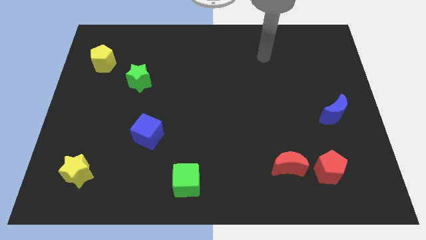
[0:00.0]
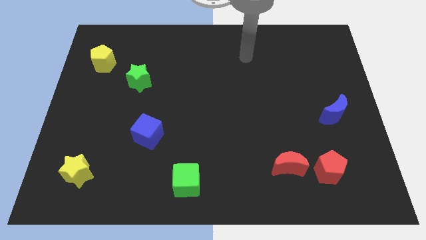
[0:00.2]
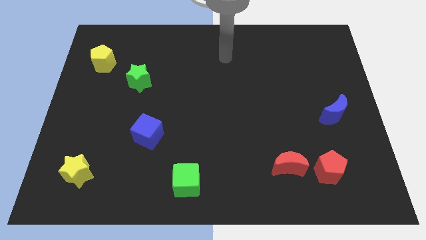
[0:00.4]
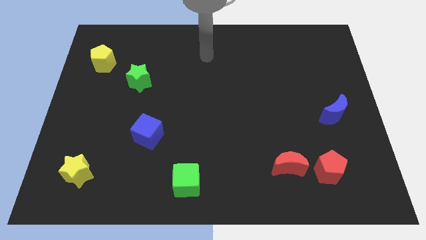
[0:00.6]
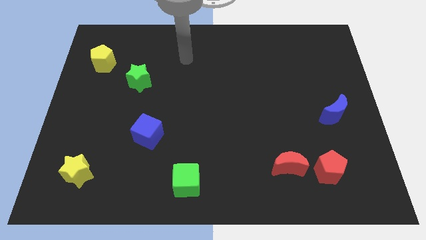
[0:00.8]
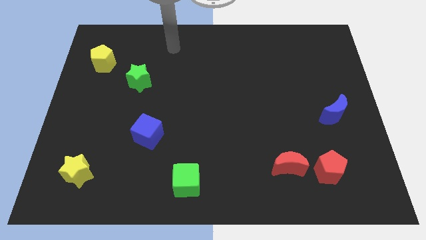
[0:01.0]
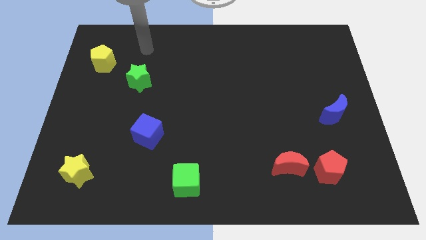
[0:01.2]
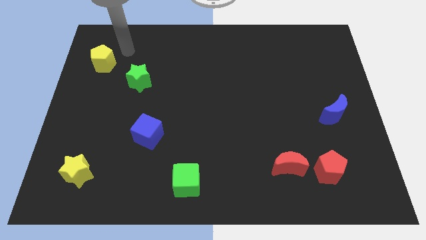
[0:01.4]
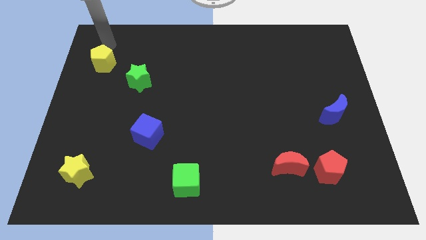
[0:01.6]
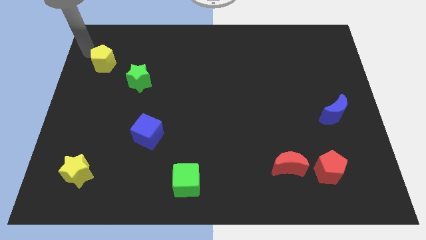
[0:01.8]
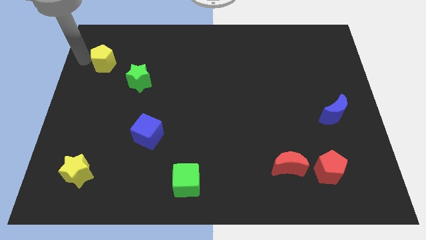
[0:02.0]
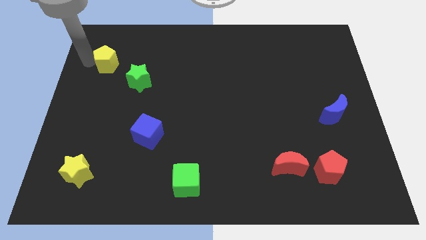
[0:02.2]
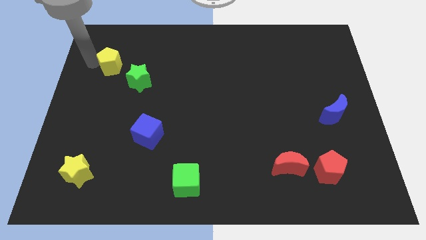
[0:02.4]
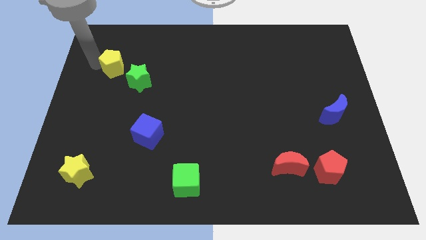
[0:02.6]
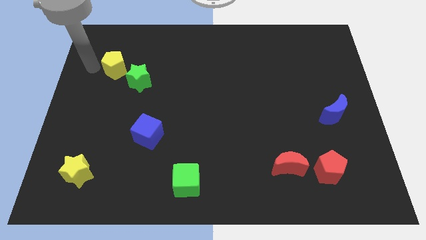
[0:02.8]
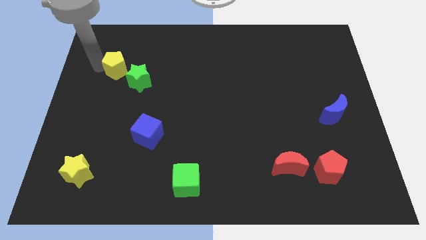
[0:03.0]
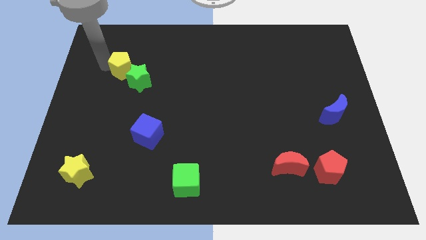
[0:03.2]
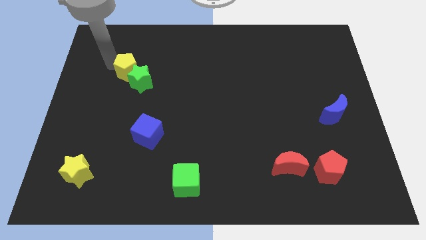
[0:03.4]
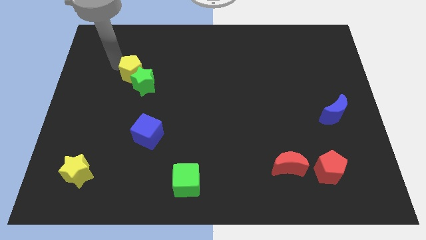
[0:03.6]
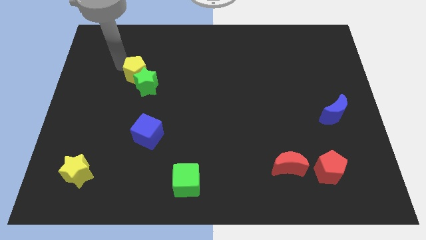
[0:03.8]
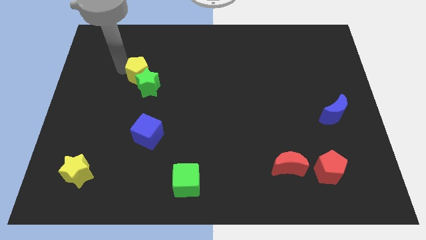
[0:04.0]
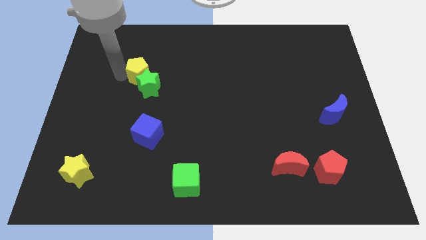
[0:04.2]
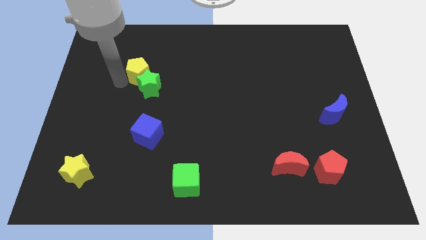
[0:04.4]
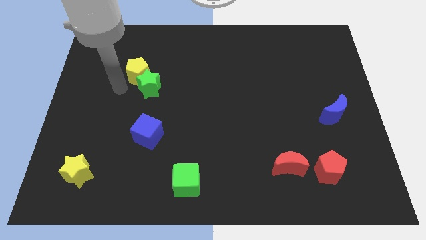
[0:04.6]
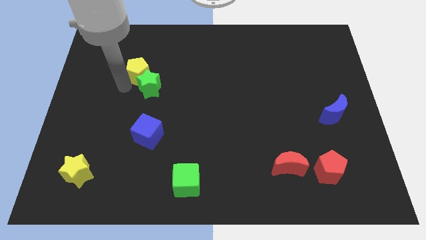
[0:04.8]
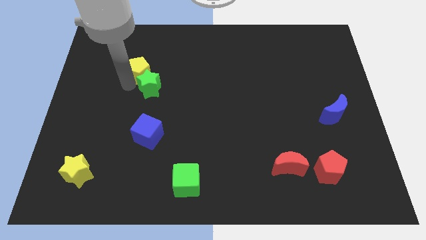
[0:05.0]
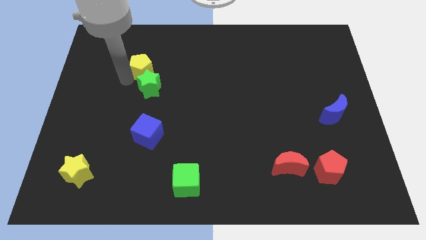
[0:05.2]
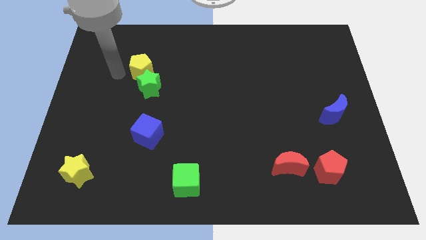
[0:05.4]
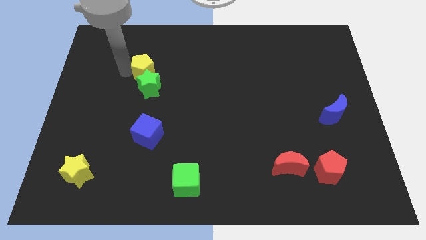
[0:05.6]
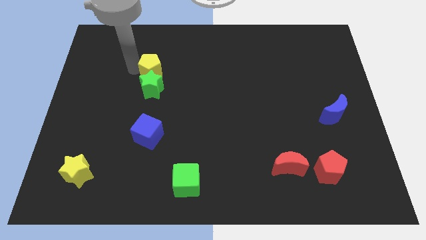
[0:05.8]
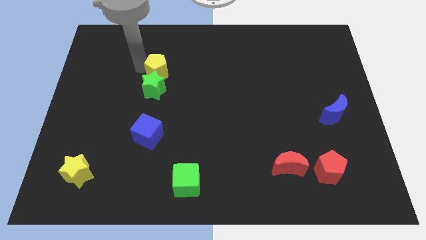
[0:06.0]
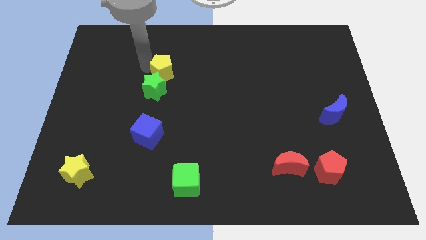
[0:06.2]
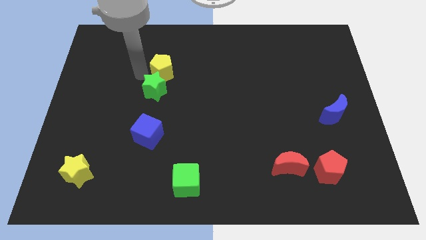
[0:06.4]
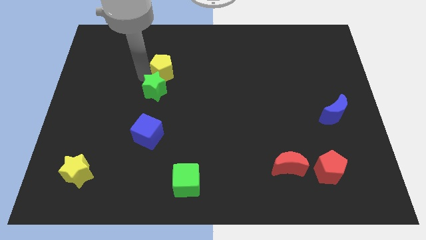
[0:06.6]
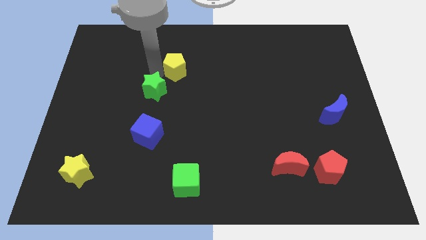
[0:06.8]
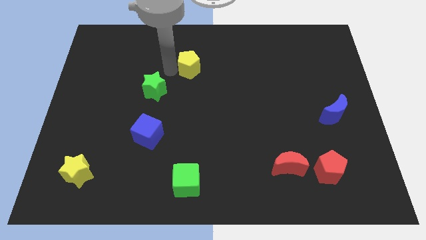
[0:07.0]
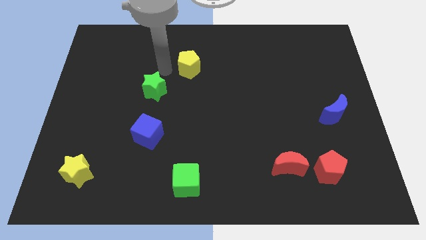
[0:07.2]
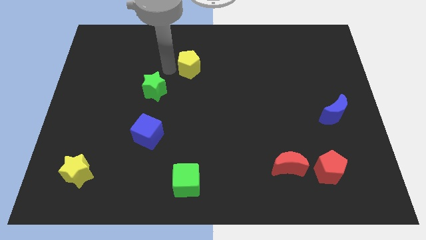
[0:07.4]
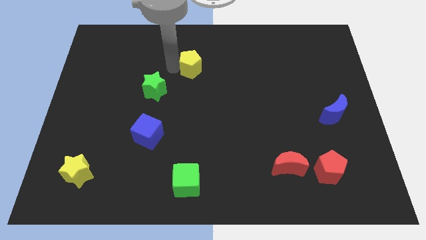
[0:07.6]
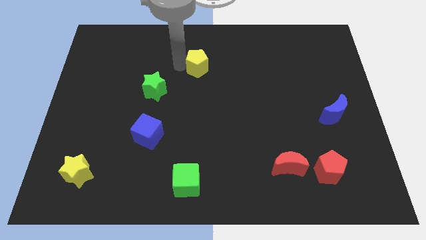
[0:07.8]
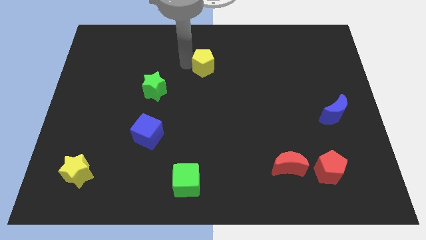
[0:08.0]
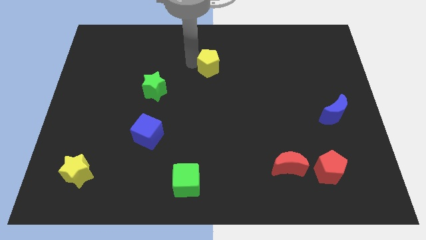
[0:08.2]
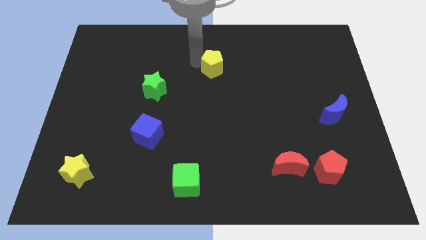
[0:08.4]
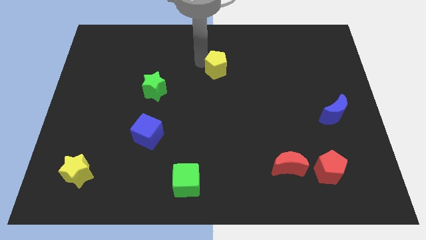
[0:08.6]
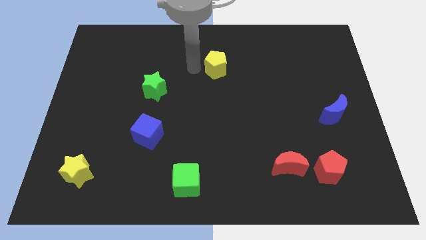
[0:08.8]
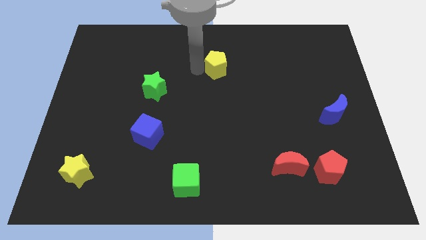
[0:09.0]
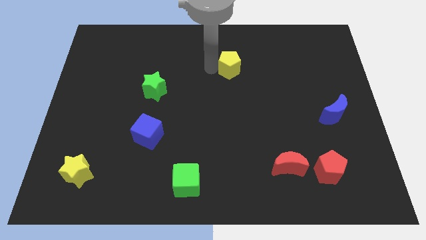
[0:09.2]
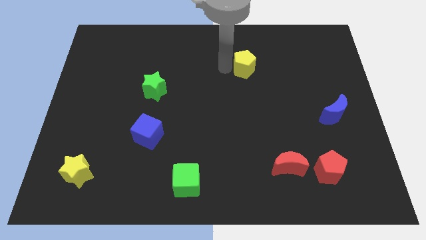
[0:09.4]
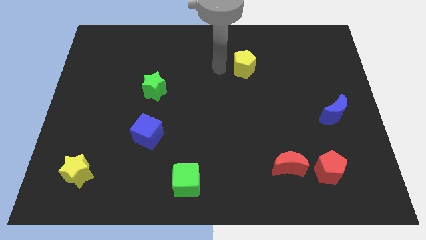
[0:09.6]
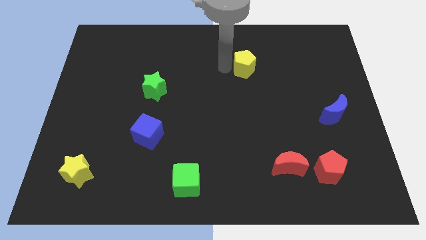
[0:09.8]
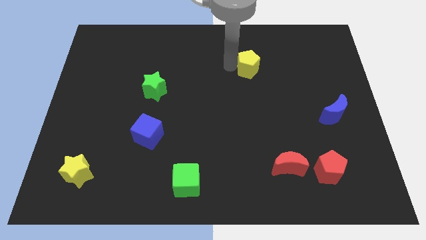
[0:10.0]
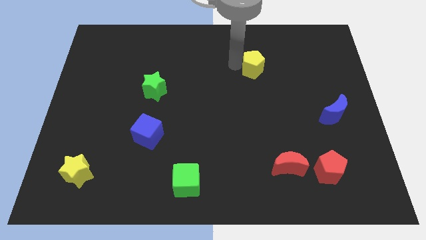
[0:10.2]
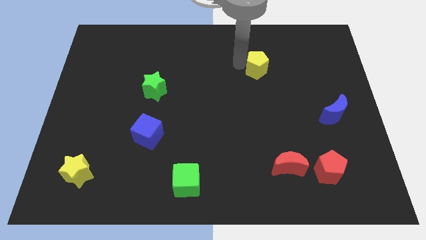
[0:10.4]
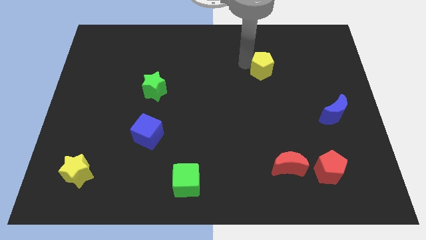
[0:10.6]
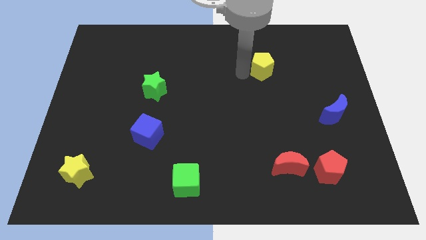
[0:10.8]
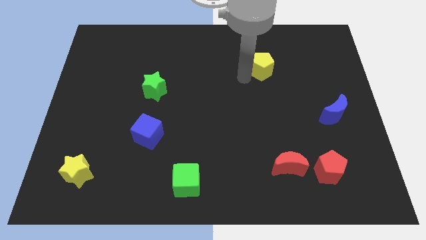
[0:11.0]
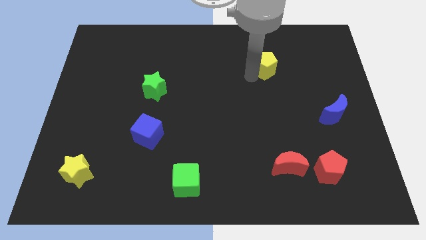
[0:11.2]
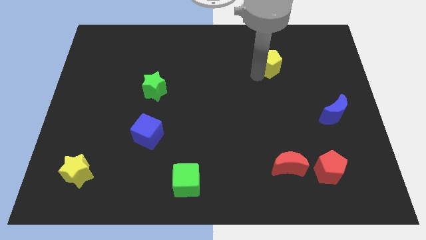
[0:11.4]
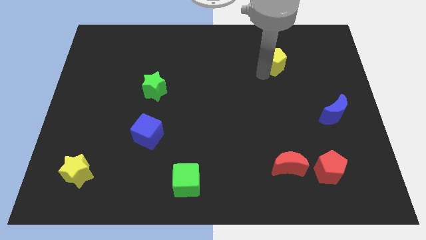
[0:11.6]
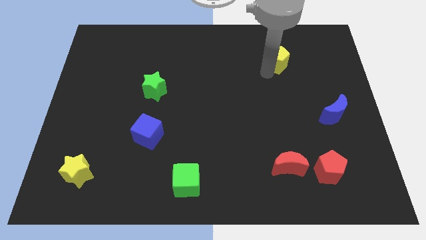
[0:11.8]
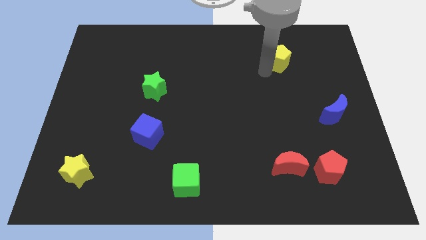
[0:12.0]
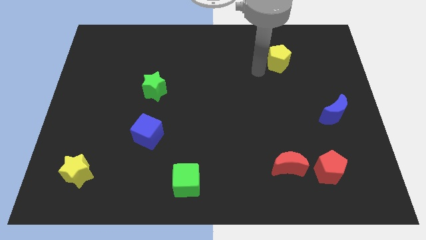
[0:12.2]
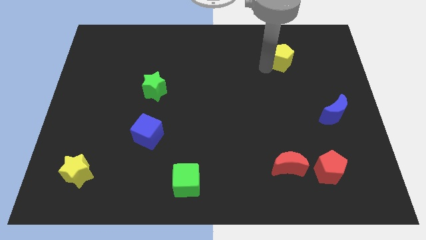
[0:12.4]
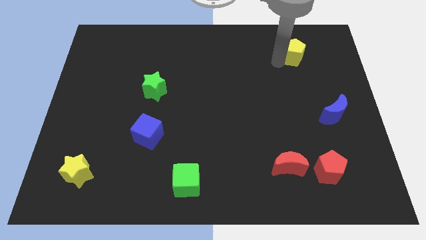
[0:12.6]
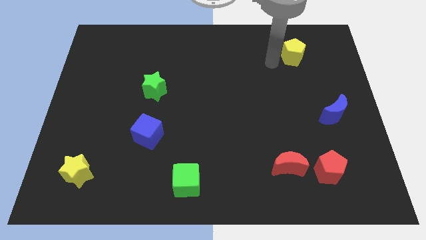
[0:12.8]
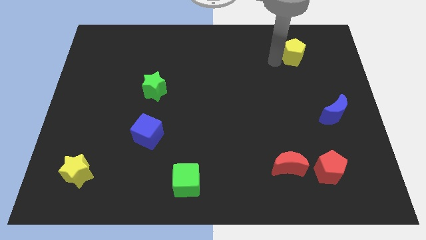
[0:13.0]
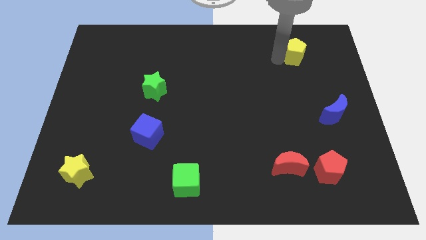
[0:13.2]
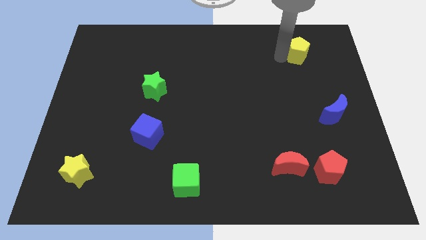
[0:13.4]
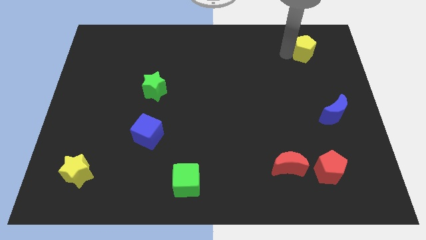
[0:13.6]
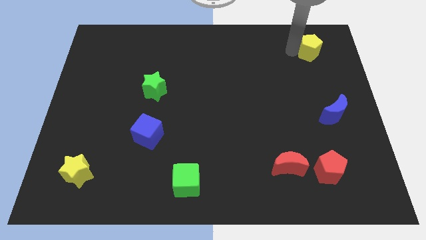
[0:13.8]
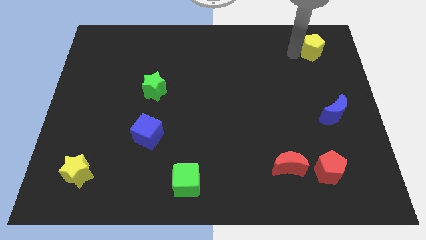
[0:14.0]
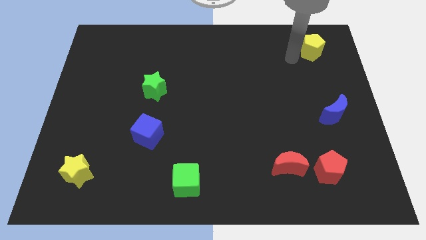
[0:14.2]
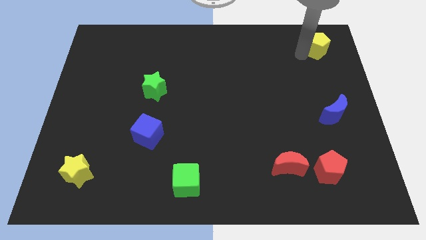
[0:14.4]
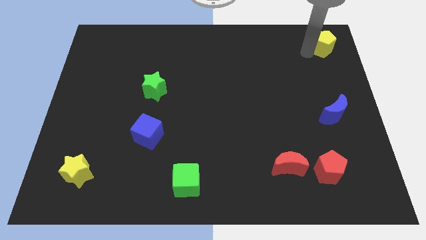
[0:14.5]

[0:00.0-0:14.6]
slide the yellow pentagon to the top right of the board

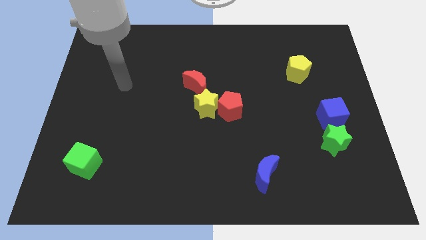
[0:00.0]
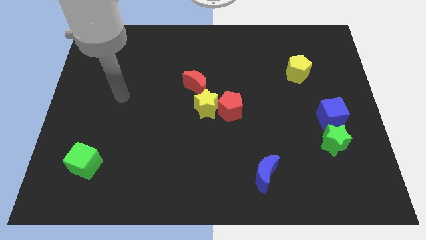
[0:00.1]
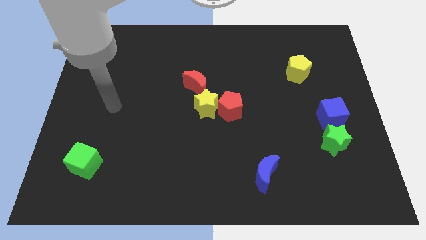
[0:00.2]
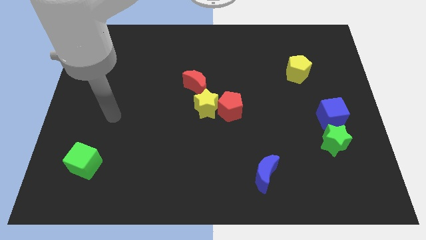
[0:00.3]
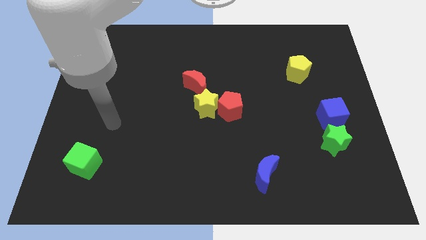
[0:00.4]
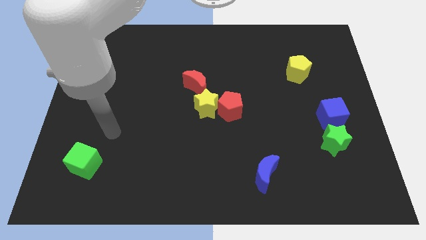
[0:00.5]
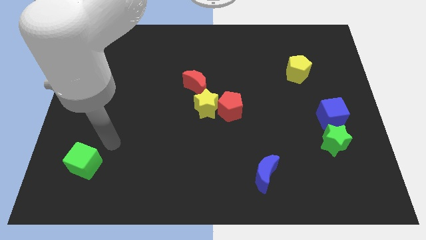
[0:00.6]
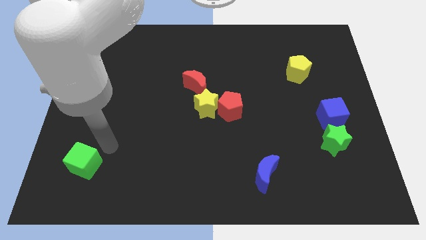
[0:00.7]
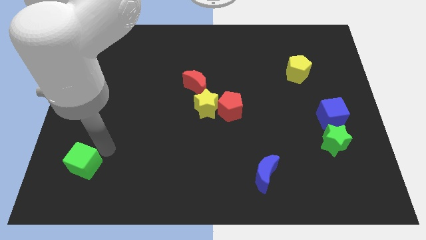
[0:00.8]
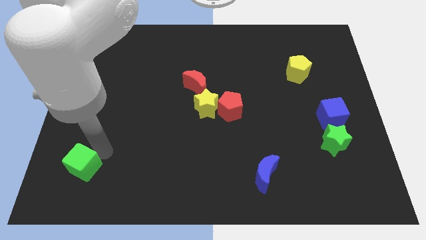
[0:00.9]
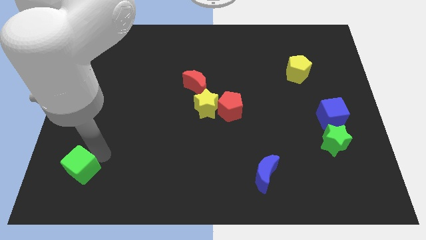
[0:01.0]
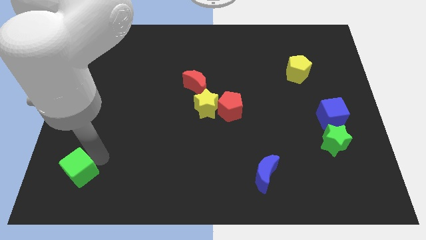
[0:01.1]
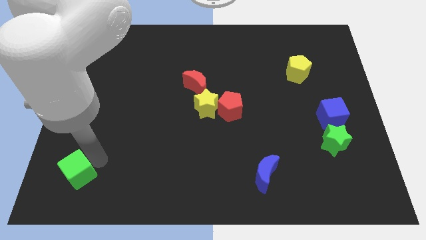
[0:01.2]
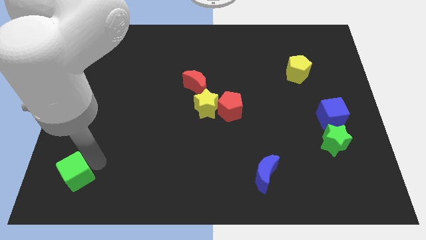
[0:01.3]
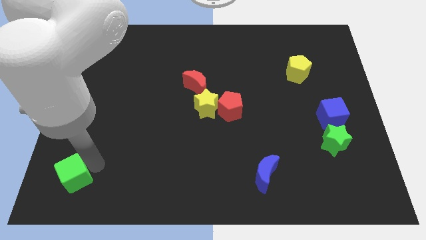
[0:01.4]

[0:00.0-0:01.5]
move the green cube to the lower left corner
